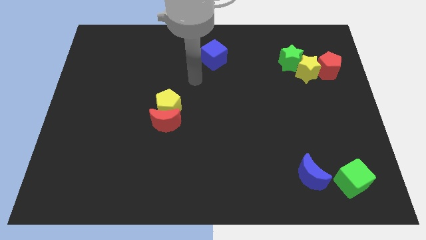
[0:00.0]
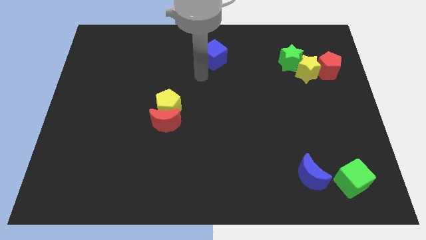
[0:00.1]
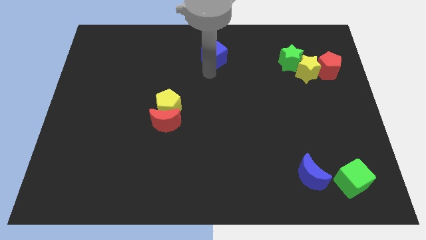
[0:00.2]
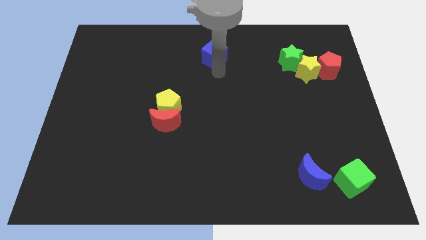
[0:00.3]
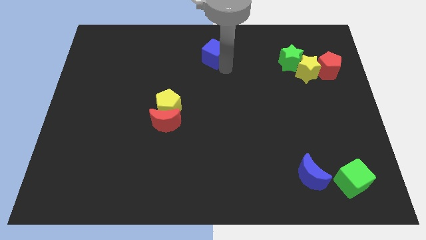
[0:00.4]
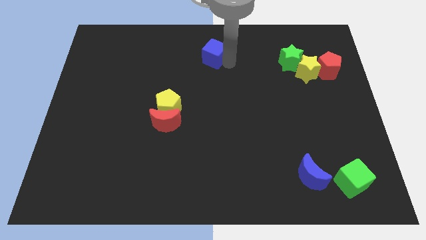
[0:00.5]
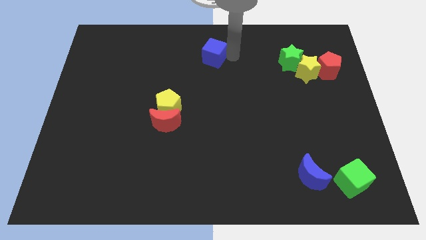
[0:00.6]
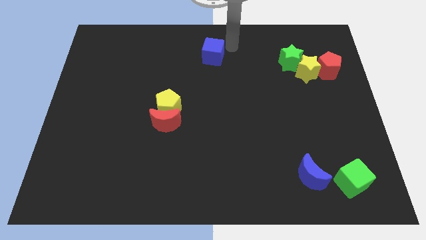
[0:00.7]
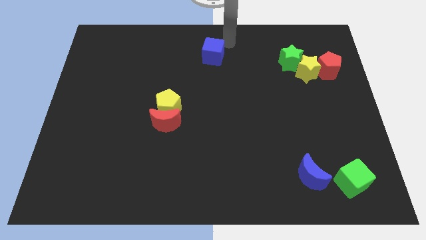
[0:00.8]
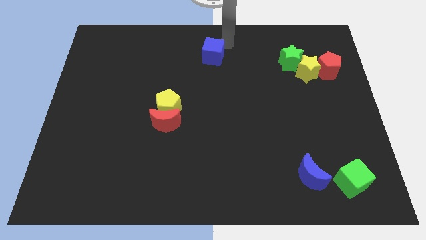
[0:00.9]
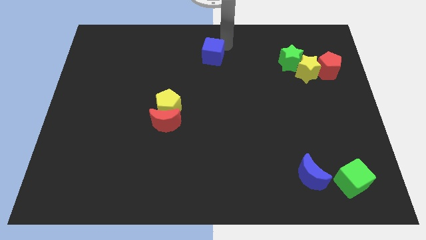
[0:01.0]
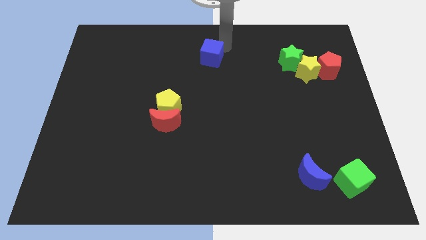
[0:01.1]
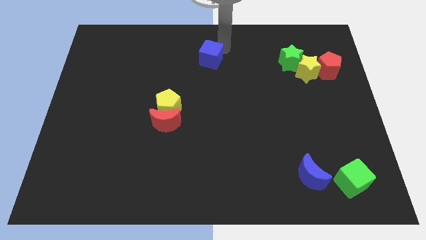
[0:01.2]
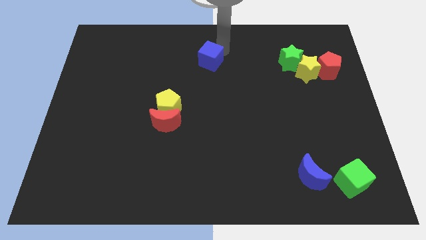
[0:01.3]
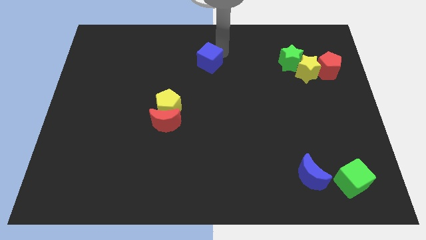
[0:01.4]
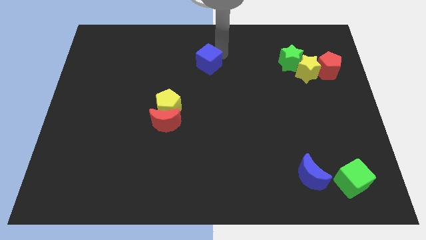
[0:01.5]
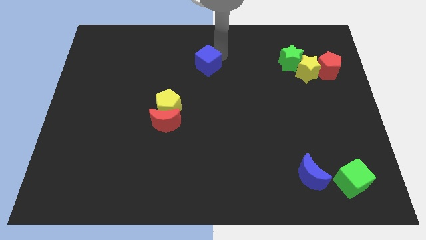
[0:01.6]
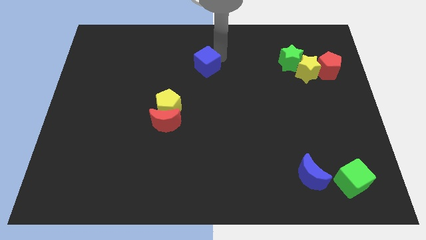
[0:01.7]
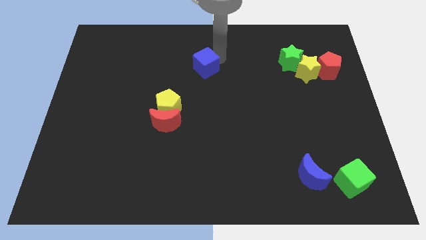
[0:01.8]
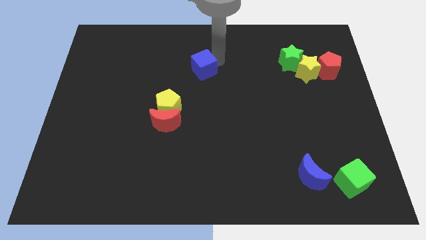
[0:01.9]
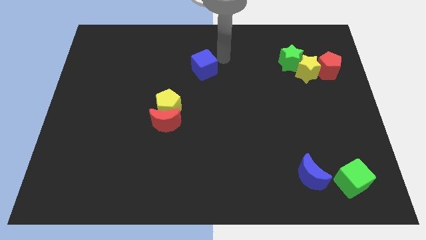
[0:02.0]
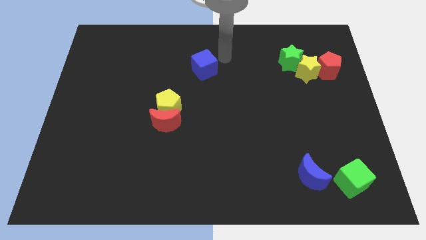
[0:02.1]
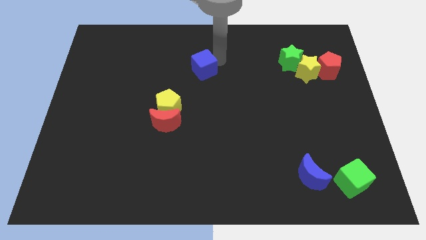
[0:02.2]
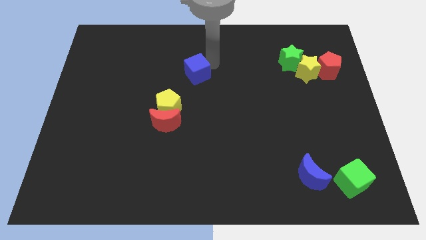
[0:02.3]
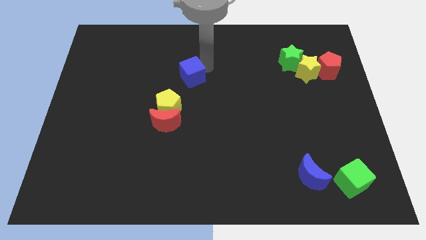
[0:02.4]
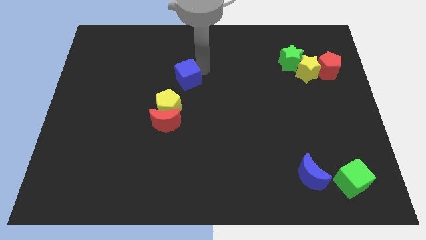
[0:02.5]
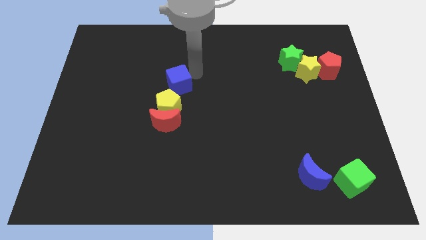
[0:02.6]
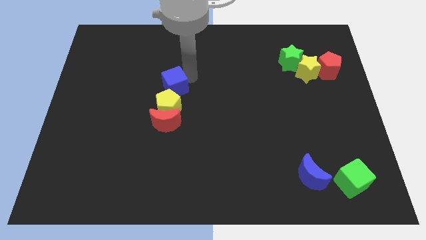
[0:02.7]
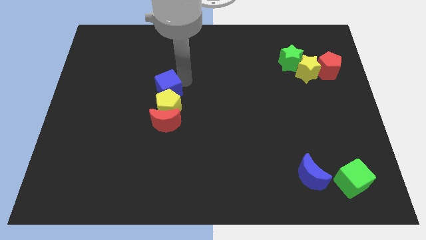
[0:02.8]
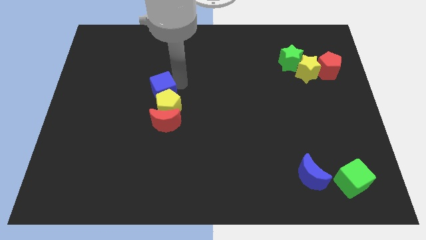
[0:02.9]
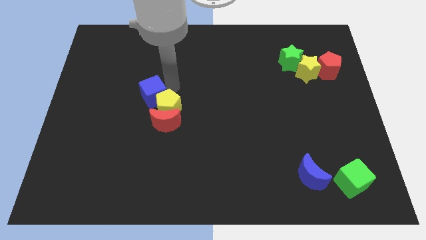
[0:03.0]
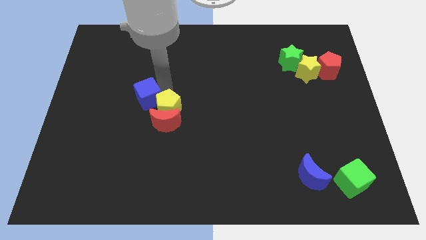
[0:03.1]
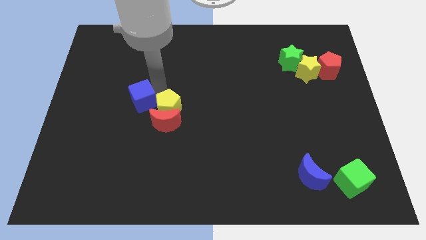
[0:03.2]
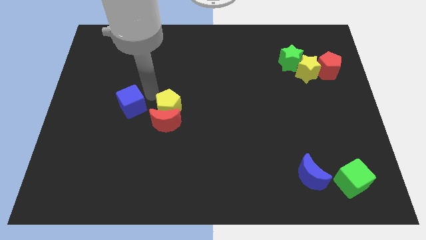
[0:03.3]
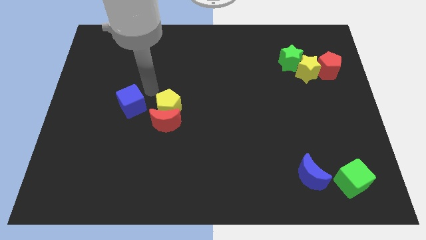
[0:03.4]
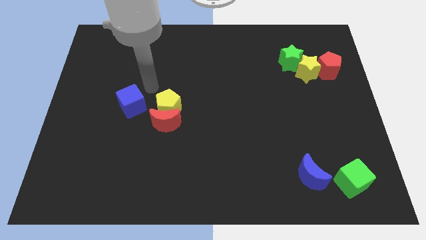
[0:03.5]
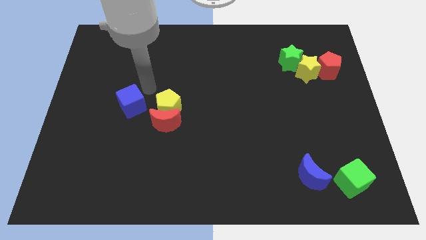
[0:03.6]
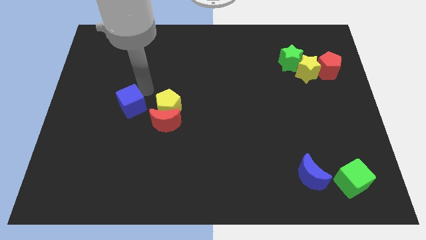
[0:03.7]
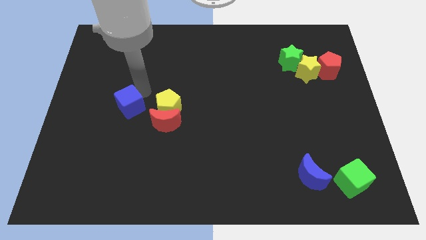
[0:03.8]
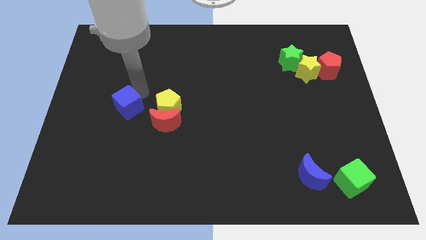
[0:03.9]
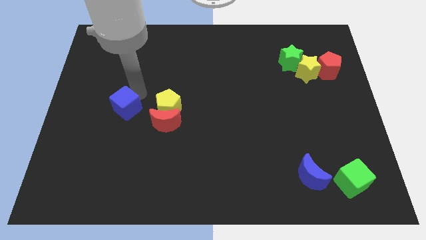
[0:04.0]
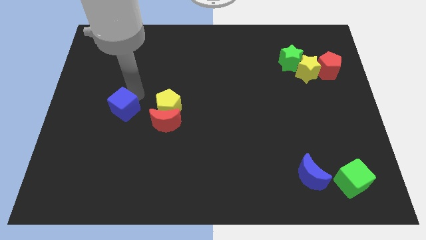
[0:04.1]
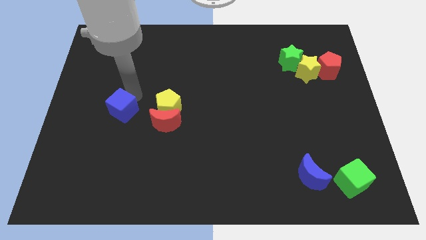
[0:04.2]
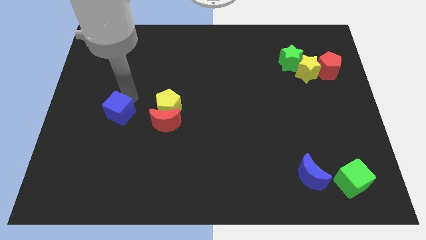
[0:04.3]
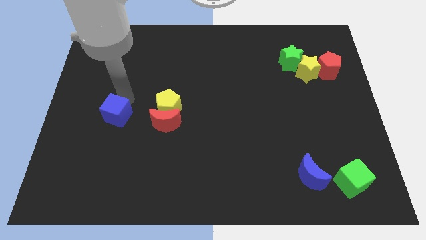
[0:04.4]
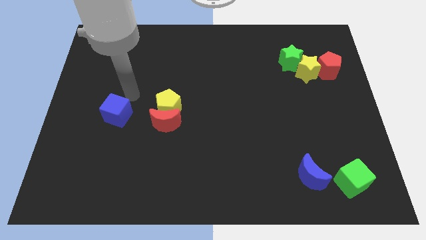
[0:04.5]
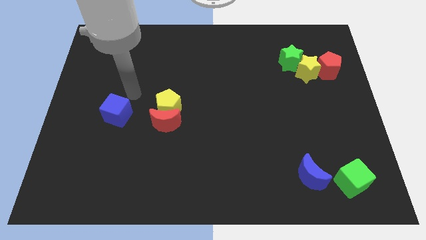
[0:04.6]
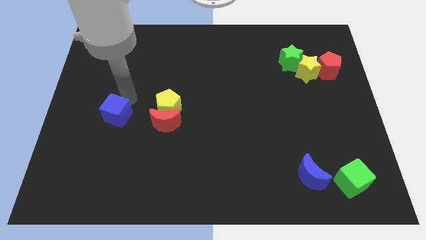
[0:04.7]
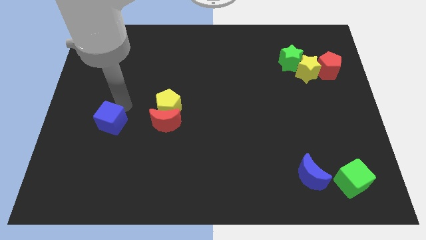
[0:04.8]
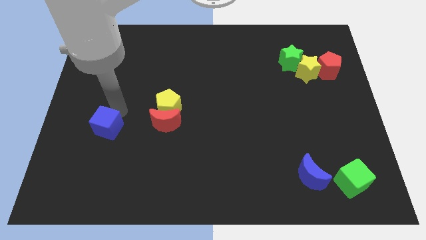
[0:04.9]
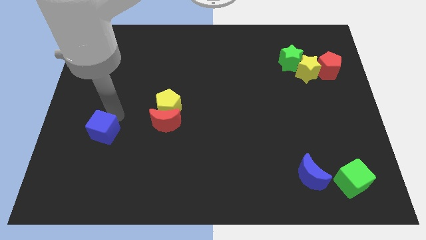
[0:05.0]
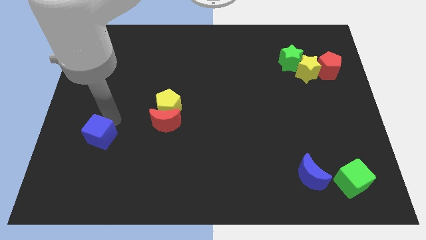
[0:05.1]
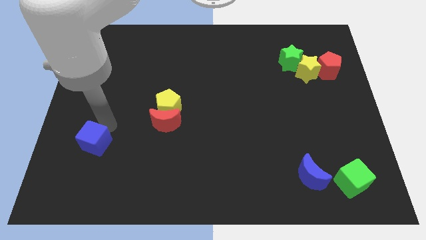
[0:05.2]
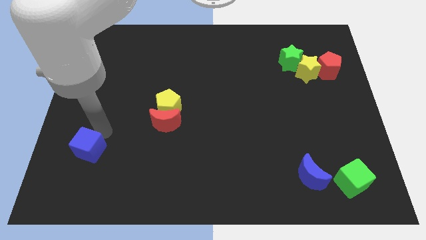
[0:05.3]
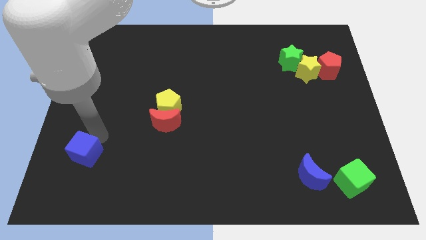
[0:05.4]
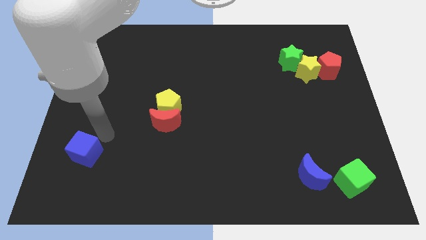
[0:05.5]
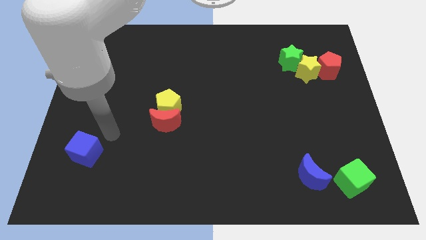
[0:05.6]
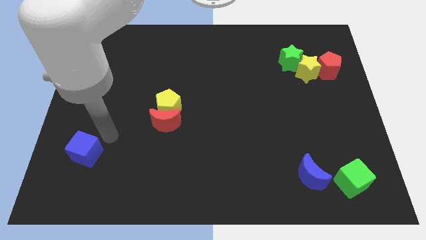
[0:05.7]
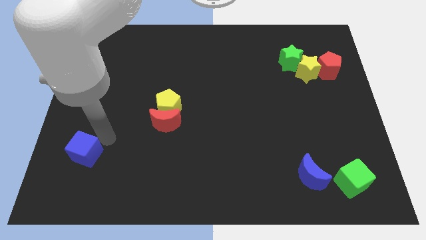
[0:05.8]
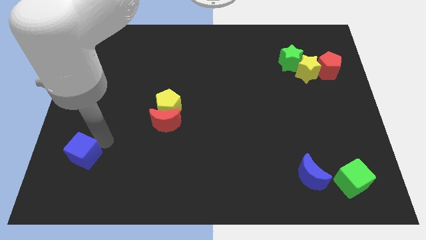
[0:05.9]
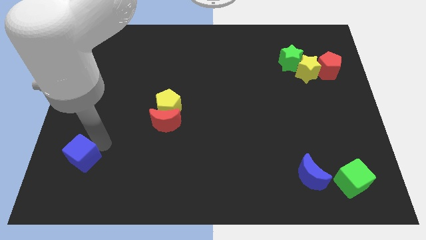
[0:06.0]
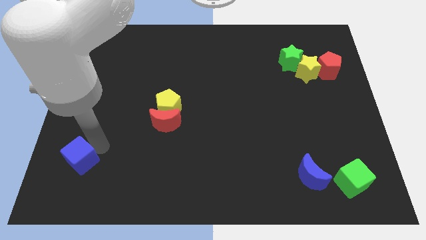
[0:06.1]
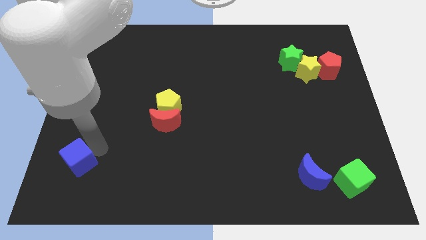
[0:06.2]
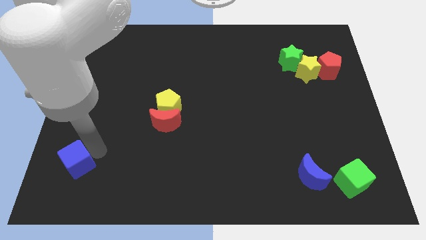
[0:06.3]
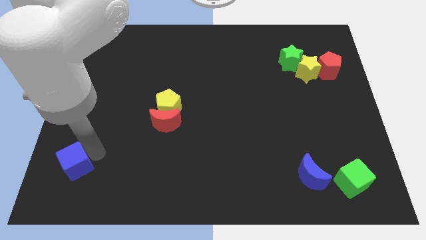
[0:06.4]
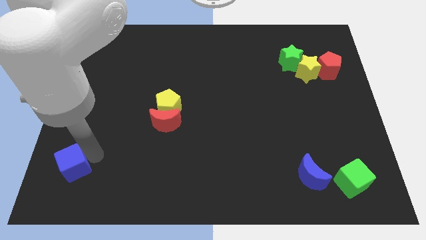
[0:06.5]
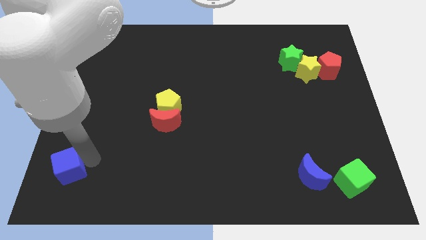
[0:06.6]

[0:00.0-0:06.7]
push the blue cube to the bottom left corner
